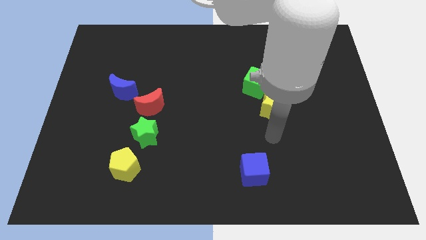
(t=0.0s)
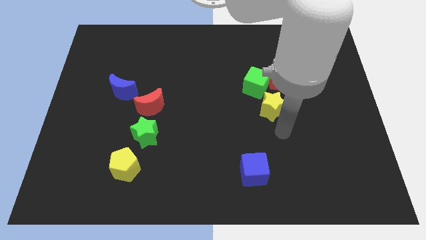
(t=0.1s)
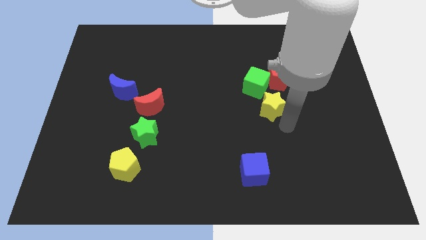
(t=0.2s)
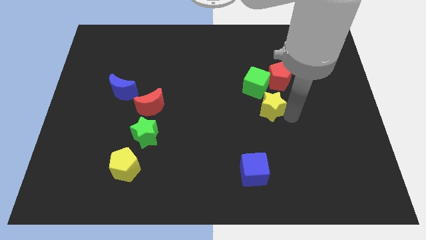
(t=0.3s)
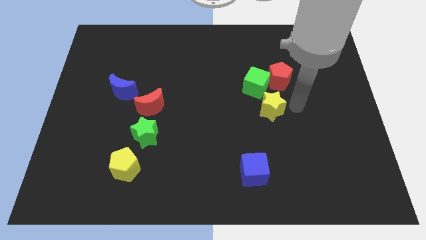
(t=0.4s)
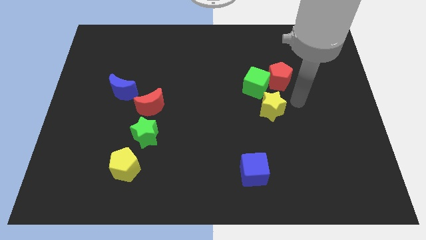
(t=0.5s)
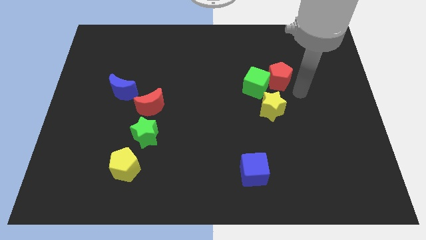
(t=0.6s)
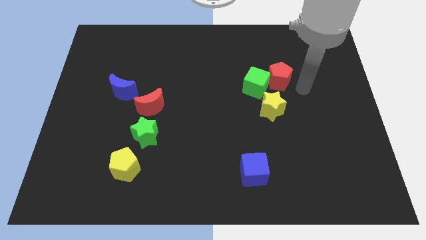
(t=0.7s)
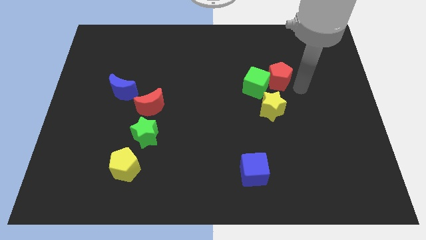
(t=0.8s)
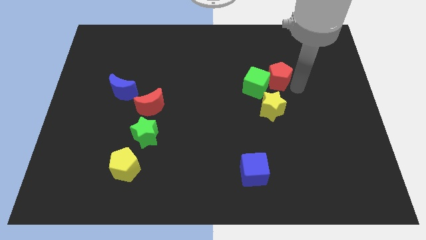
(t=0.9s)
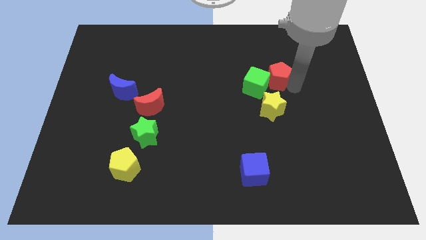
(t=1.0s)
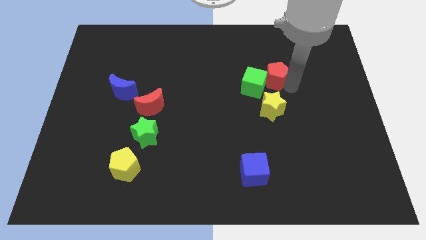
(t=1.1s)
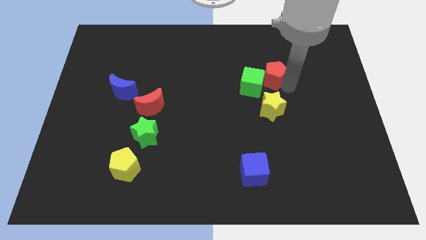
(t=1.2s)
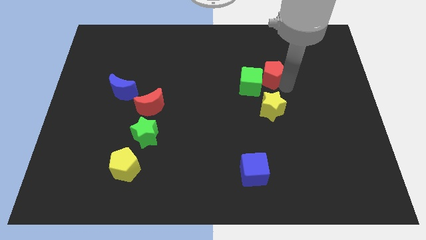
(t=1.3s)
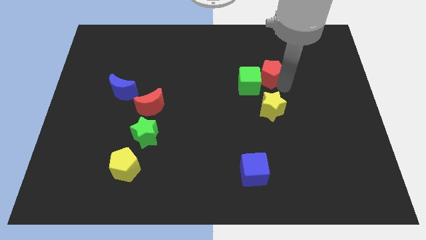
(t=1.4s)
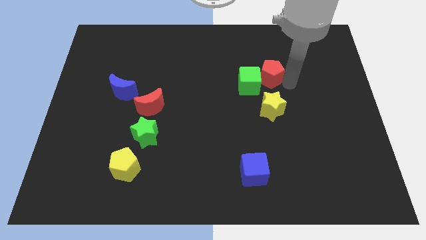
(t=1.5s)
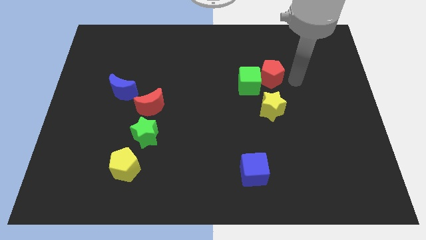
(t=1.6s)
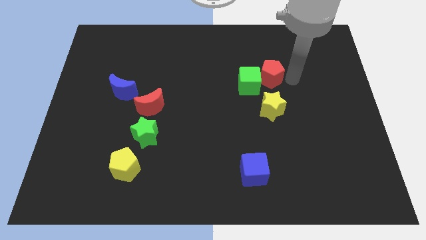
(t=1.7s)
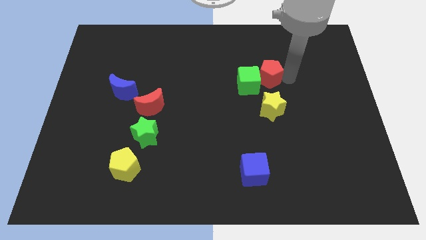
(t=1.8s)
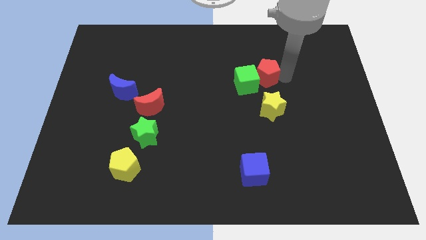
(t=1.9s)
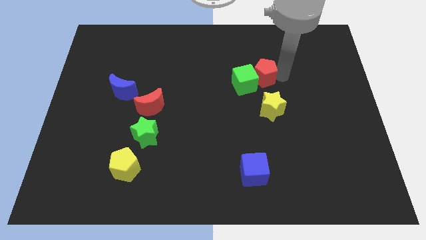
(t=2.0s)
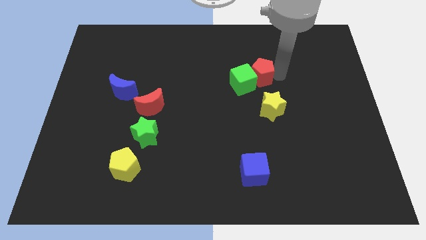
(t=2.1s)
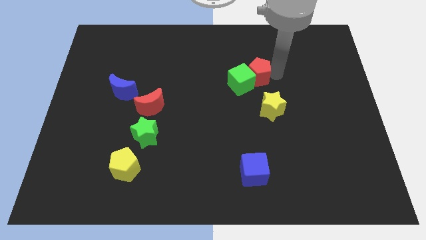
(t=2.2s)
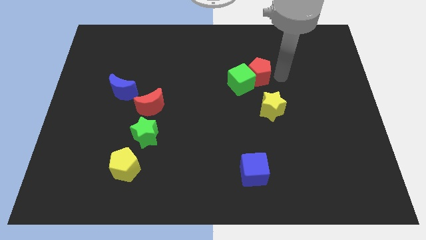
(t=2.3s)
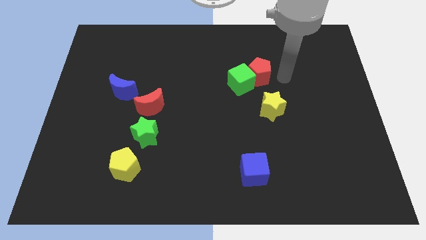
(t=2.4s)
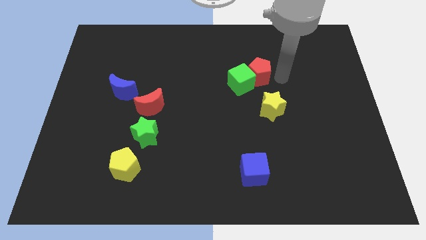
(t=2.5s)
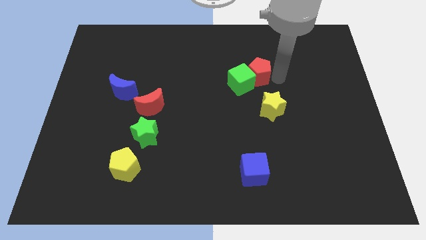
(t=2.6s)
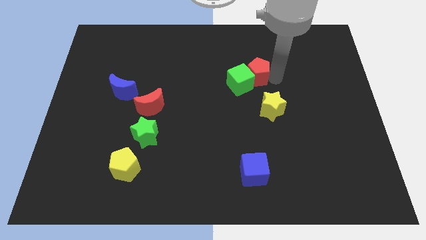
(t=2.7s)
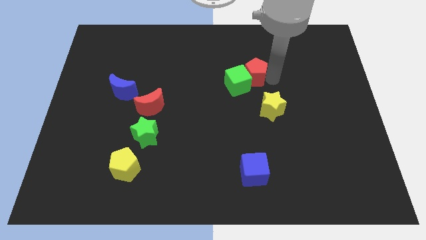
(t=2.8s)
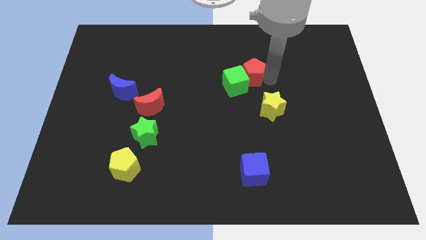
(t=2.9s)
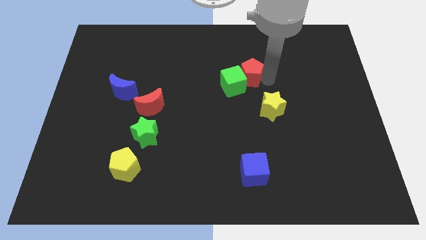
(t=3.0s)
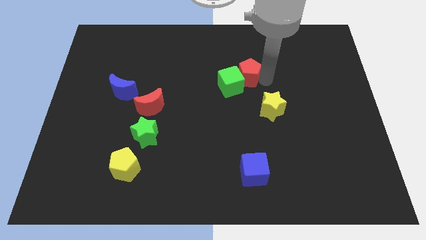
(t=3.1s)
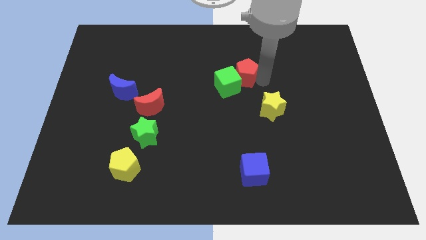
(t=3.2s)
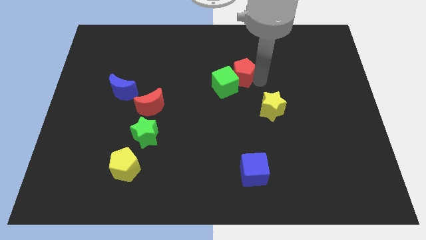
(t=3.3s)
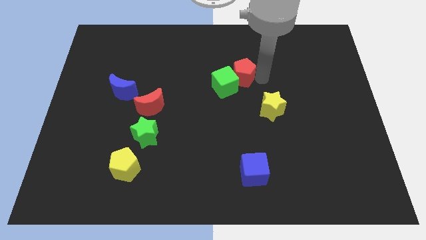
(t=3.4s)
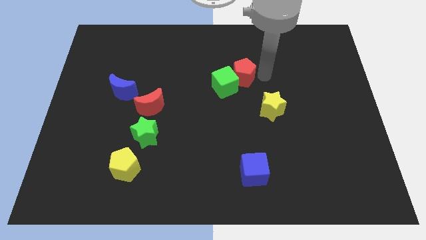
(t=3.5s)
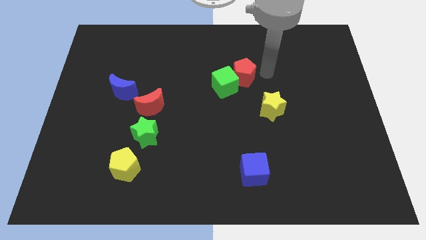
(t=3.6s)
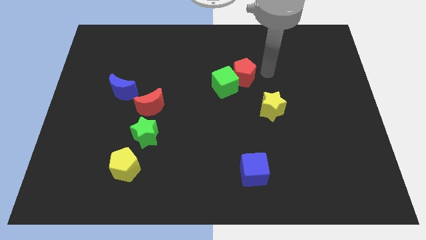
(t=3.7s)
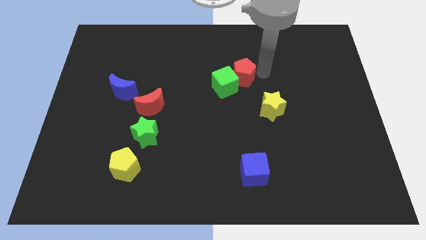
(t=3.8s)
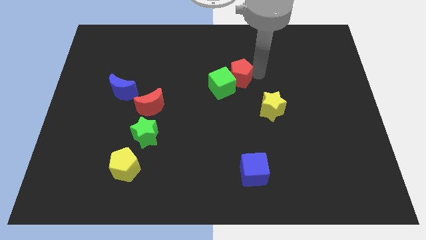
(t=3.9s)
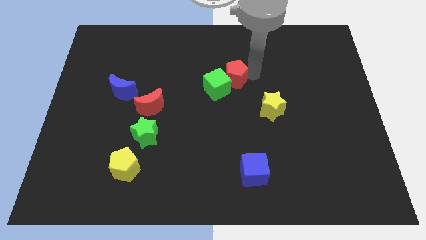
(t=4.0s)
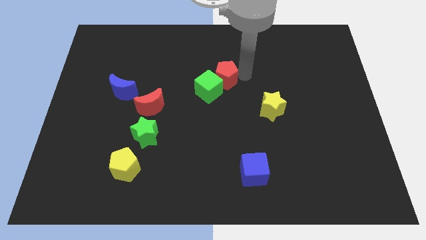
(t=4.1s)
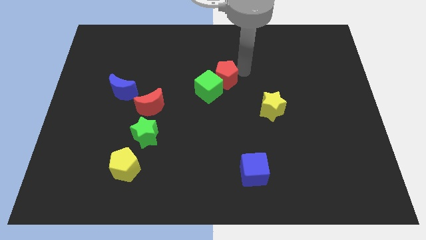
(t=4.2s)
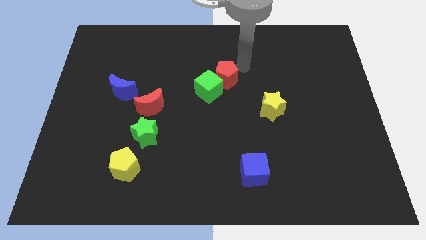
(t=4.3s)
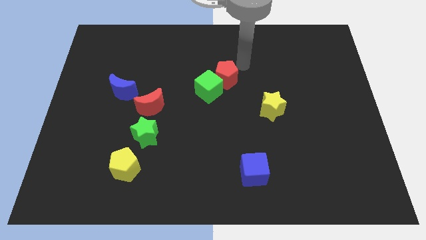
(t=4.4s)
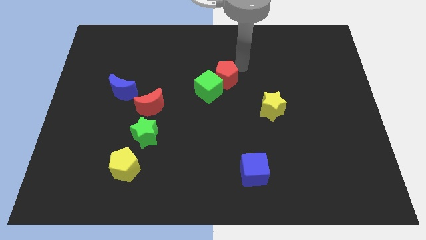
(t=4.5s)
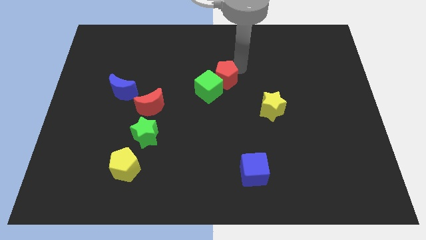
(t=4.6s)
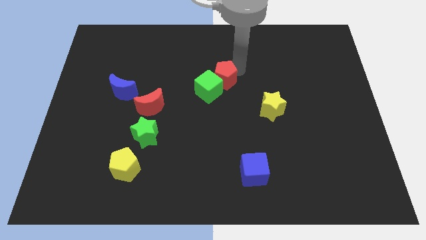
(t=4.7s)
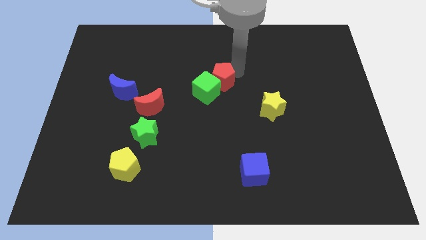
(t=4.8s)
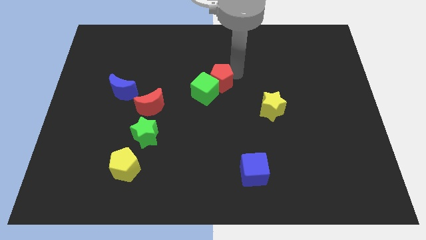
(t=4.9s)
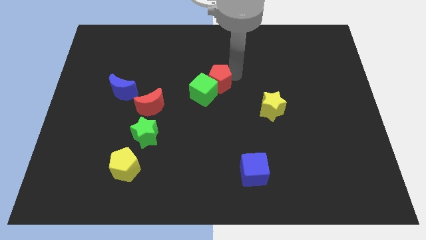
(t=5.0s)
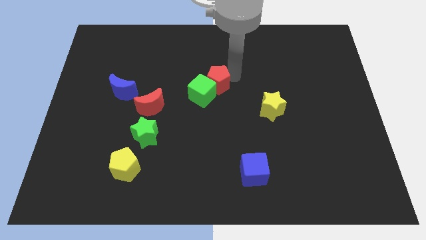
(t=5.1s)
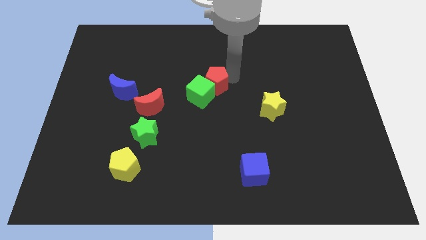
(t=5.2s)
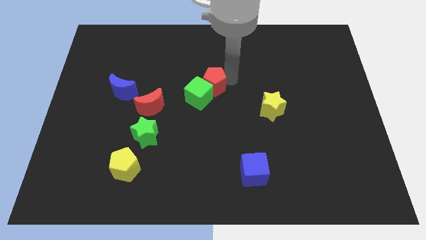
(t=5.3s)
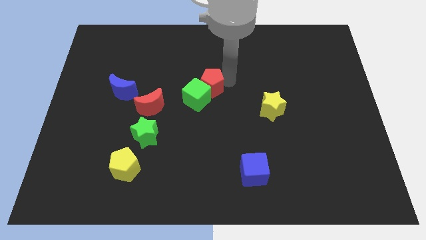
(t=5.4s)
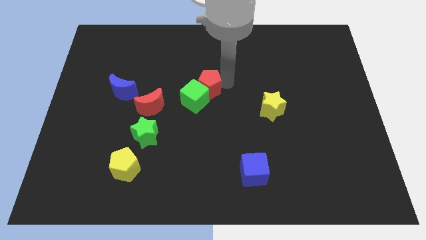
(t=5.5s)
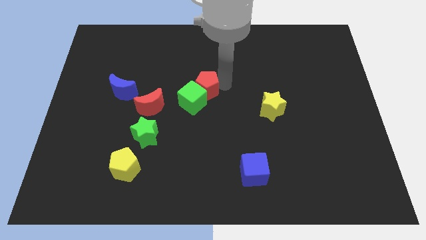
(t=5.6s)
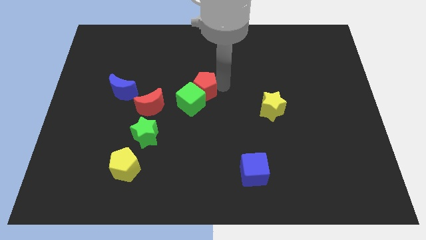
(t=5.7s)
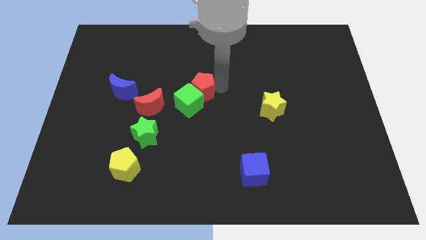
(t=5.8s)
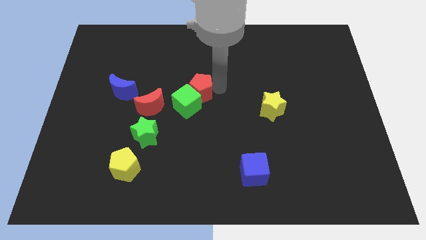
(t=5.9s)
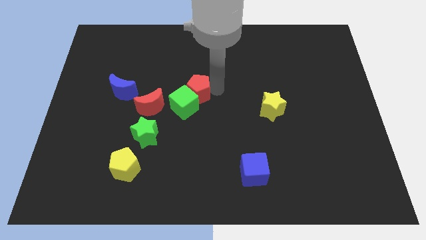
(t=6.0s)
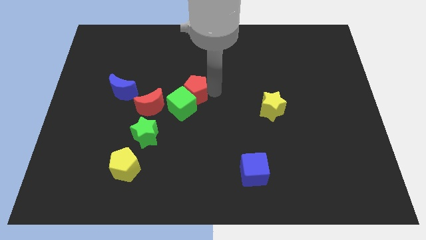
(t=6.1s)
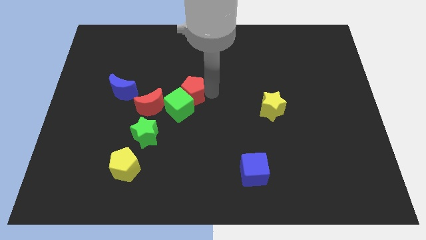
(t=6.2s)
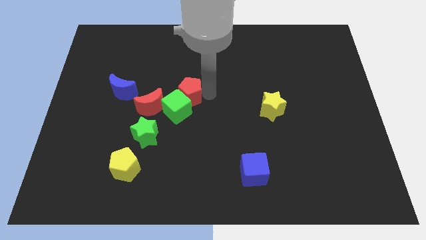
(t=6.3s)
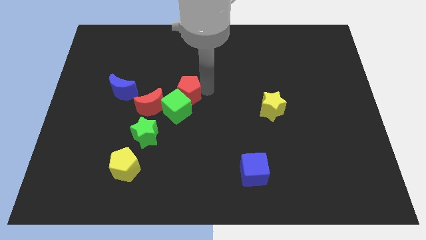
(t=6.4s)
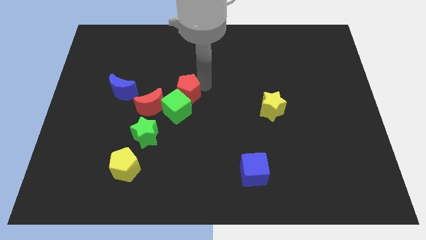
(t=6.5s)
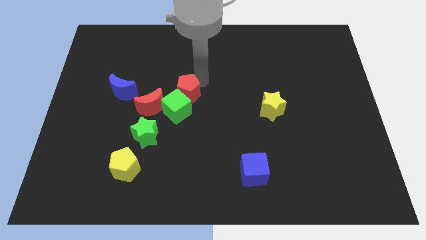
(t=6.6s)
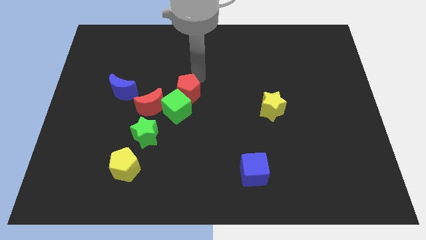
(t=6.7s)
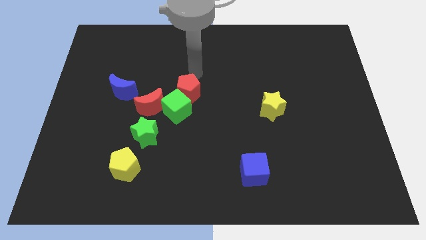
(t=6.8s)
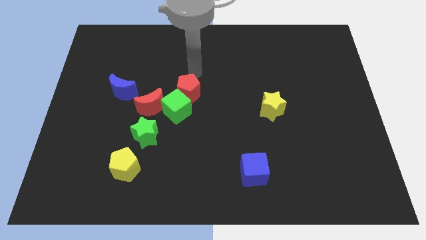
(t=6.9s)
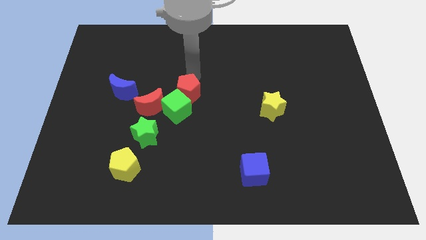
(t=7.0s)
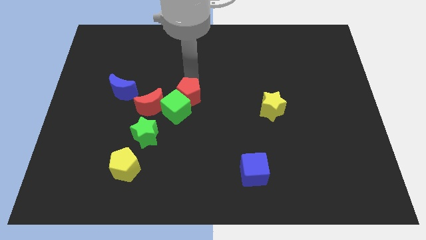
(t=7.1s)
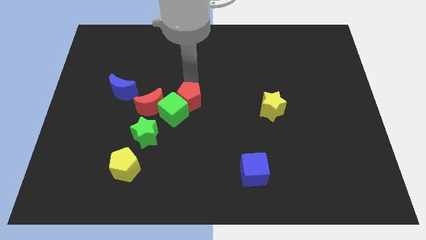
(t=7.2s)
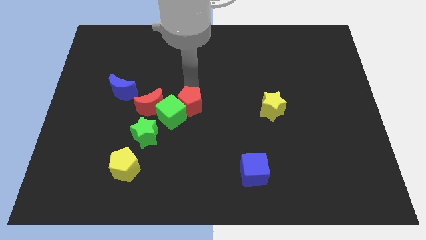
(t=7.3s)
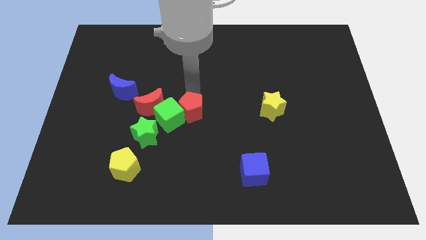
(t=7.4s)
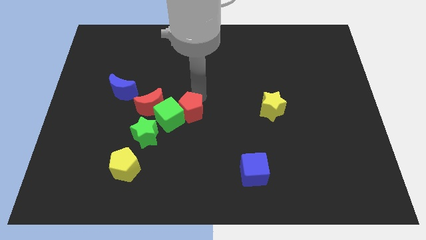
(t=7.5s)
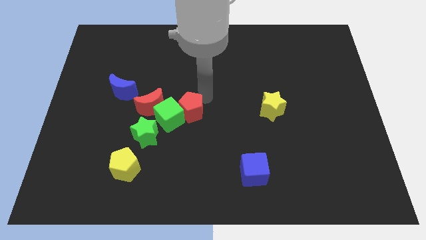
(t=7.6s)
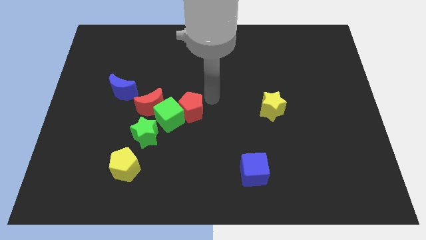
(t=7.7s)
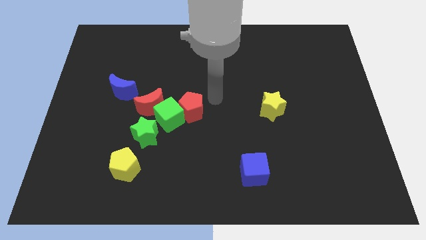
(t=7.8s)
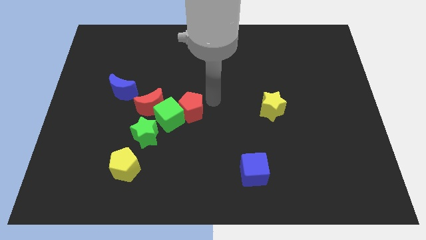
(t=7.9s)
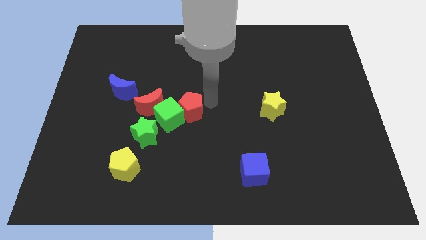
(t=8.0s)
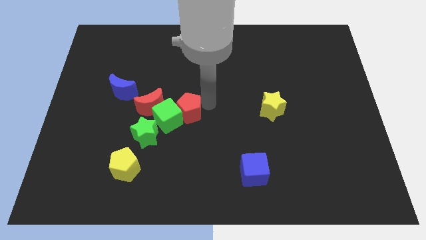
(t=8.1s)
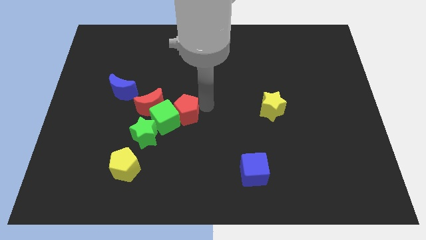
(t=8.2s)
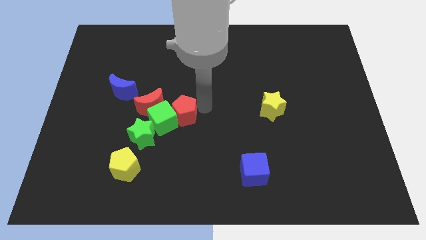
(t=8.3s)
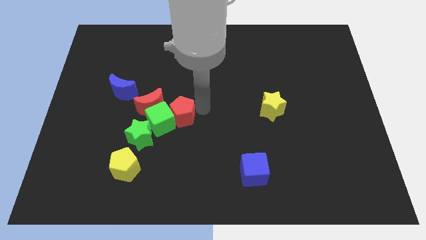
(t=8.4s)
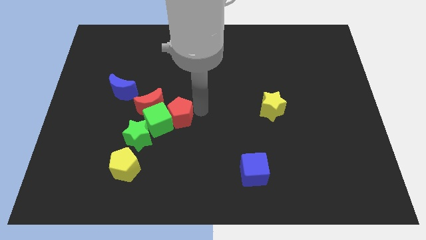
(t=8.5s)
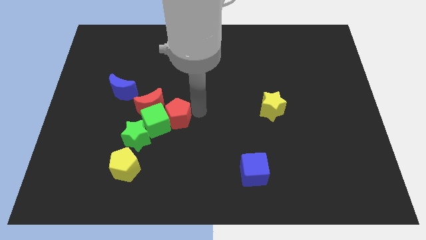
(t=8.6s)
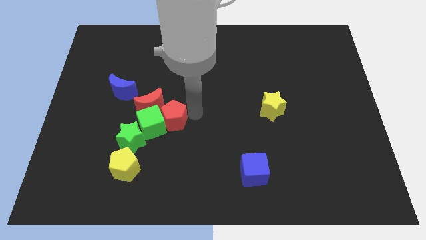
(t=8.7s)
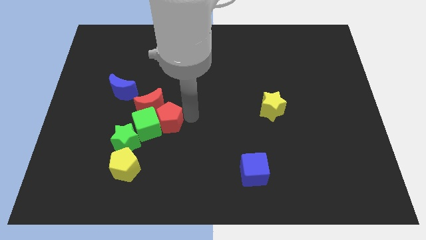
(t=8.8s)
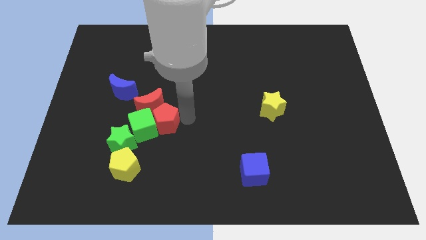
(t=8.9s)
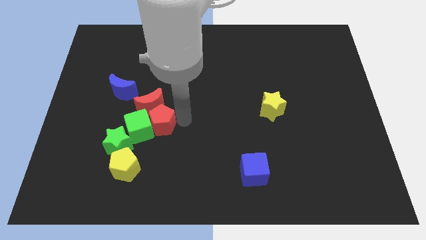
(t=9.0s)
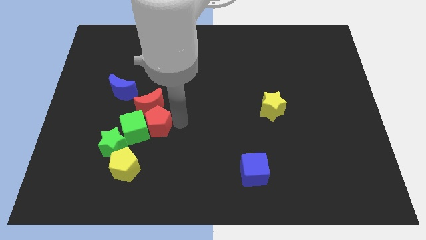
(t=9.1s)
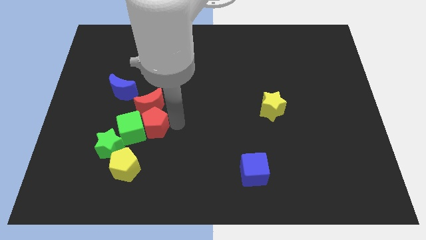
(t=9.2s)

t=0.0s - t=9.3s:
move the red pentagon diagonally down and to the left of the red moon
